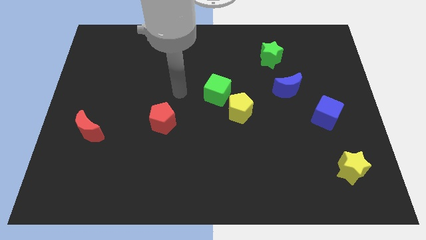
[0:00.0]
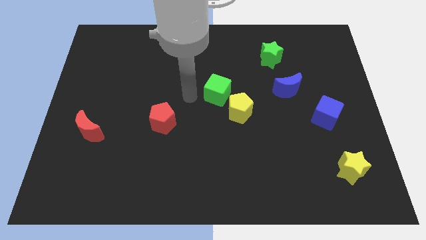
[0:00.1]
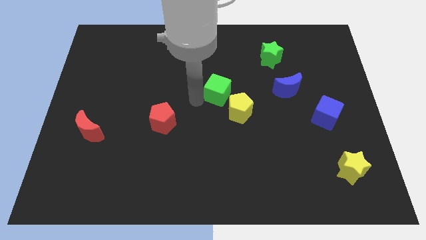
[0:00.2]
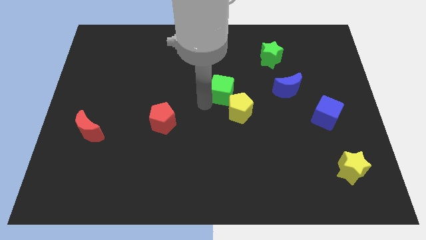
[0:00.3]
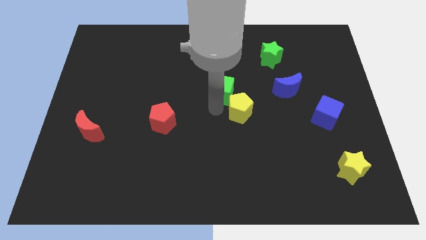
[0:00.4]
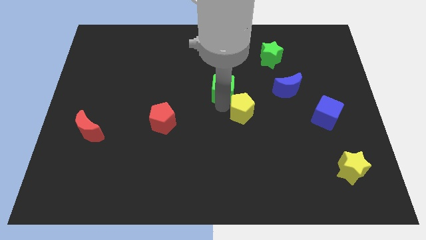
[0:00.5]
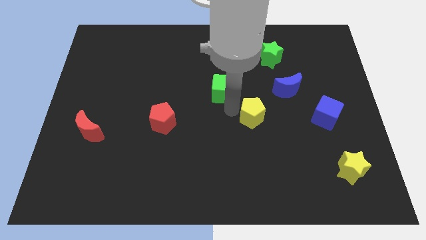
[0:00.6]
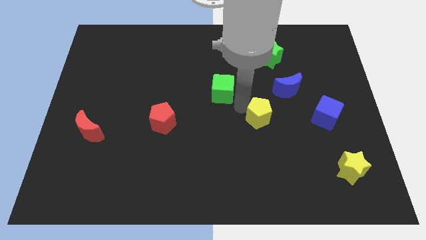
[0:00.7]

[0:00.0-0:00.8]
separate the green cube from the yellow pentagon

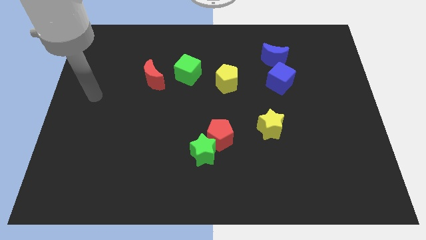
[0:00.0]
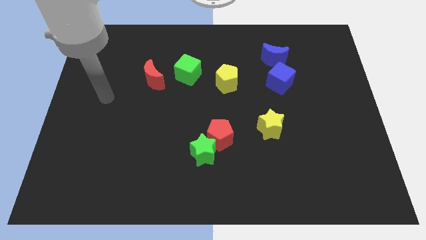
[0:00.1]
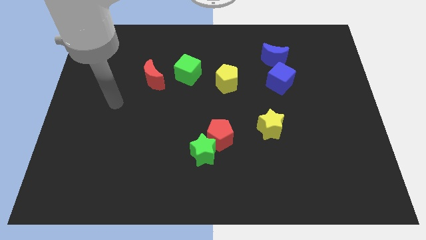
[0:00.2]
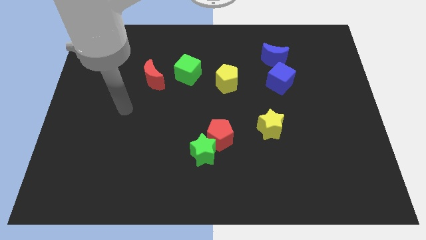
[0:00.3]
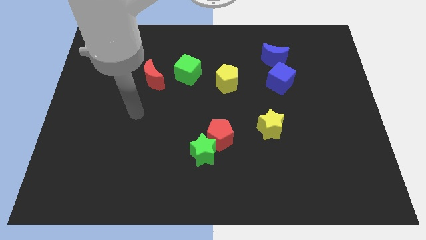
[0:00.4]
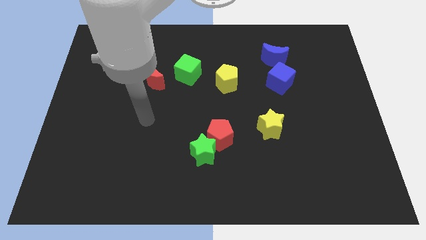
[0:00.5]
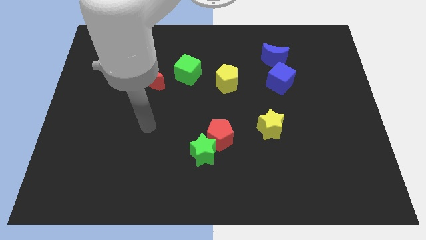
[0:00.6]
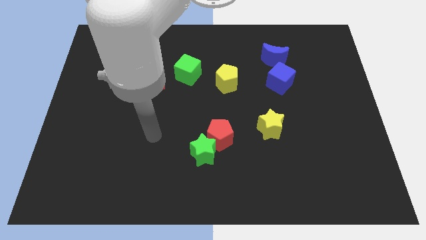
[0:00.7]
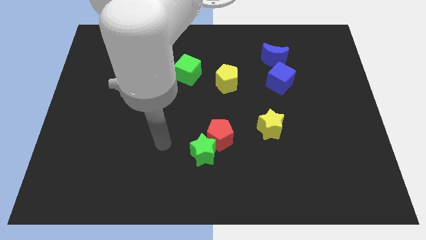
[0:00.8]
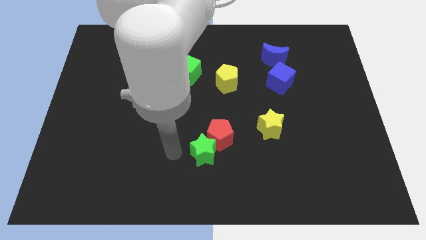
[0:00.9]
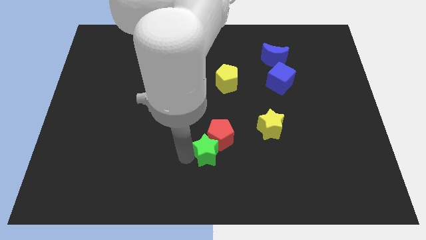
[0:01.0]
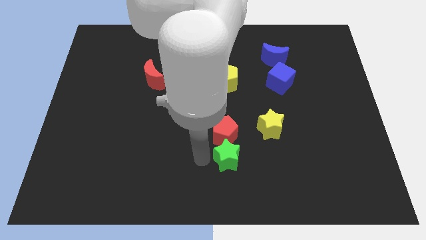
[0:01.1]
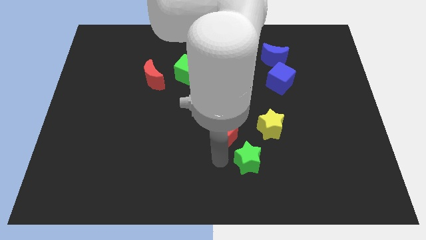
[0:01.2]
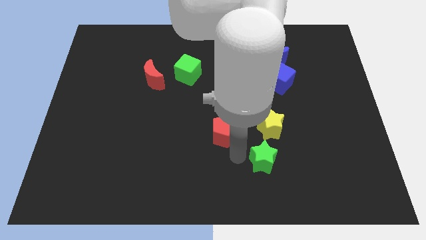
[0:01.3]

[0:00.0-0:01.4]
separate the red pentagon from the green star

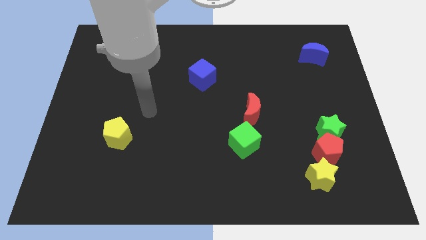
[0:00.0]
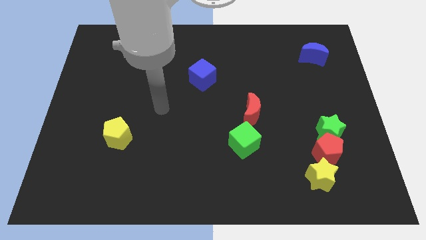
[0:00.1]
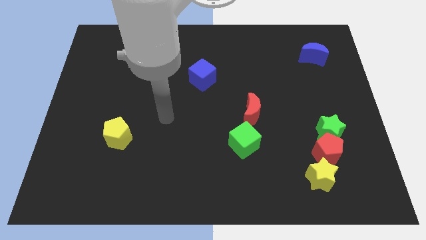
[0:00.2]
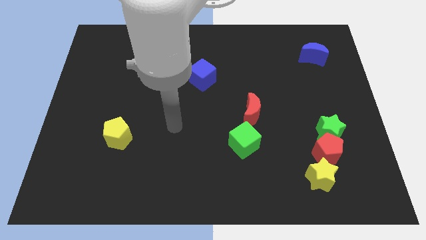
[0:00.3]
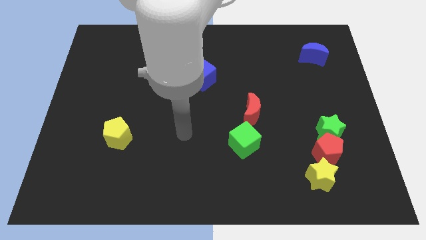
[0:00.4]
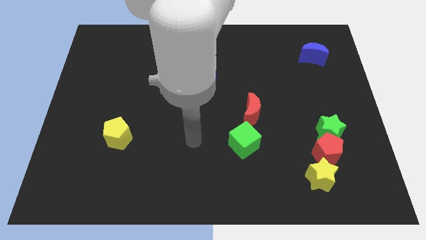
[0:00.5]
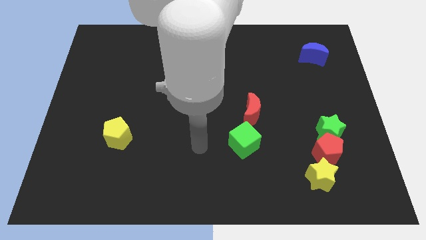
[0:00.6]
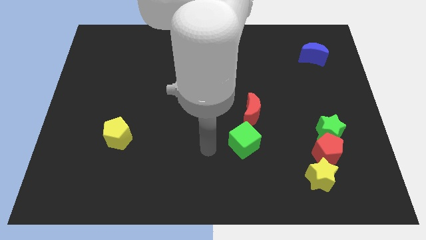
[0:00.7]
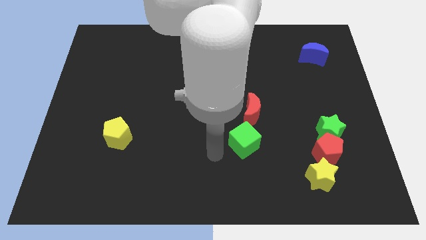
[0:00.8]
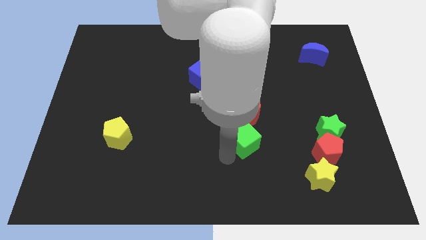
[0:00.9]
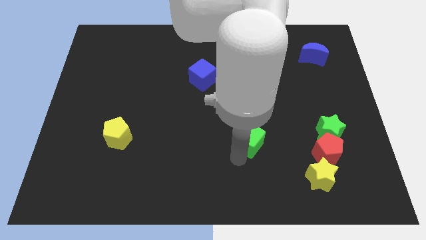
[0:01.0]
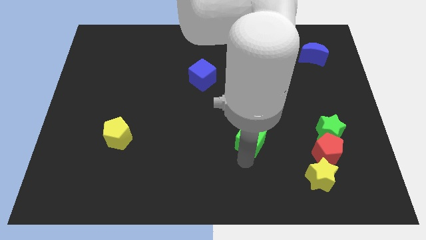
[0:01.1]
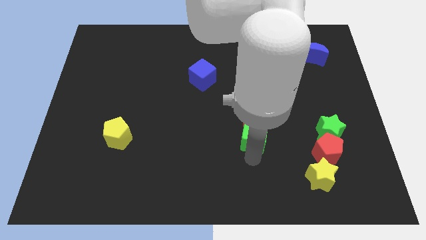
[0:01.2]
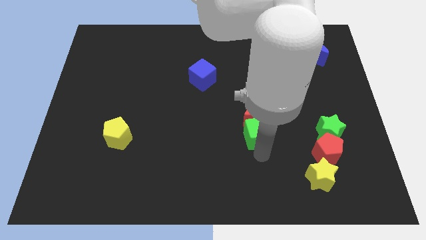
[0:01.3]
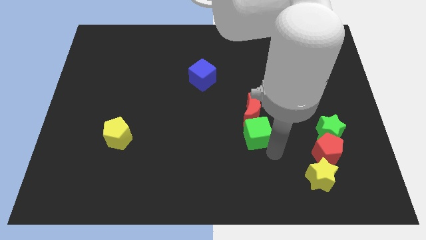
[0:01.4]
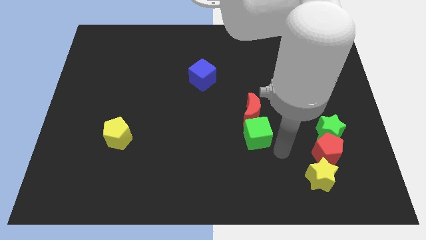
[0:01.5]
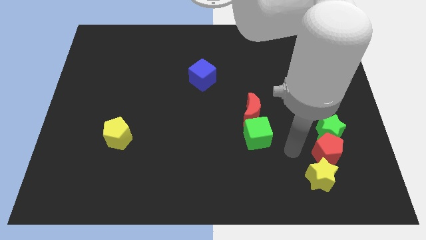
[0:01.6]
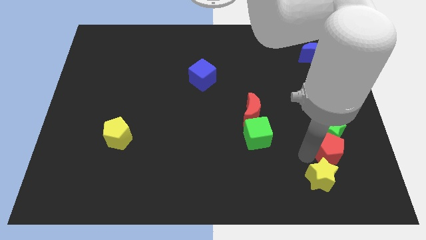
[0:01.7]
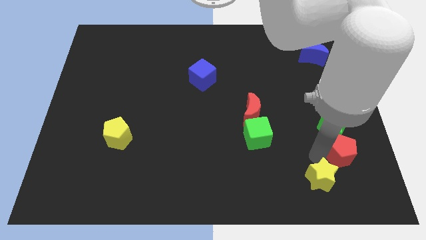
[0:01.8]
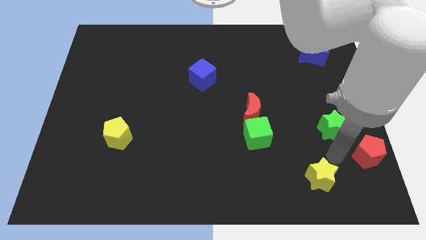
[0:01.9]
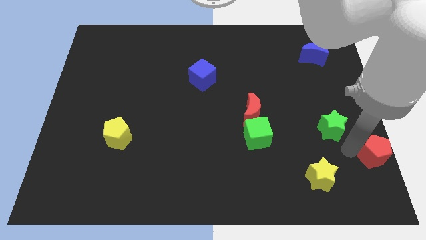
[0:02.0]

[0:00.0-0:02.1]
separate the green star from the red pentagon

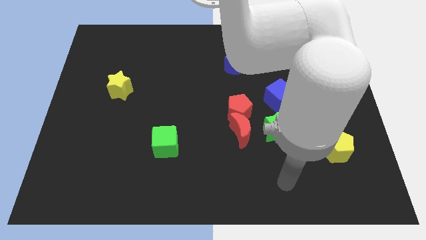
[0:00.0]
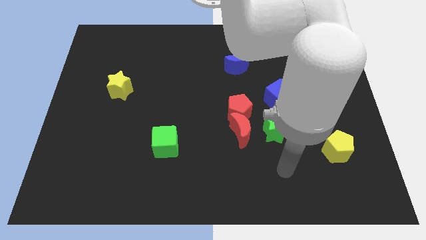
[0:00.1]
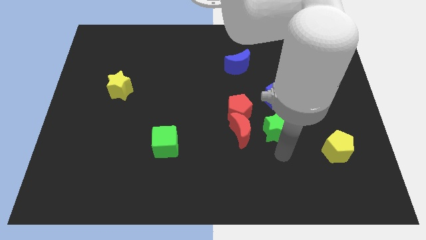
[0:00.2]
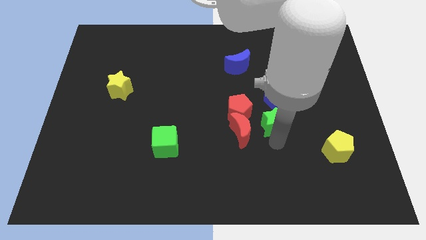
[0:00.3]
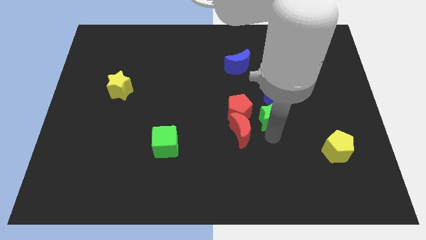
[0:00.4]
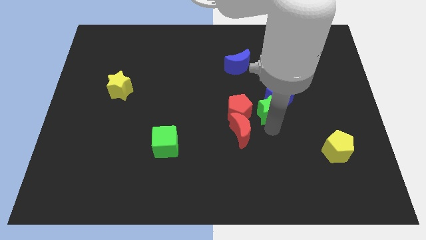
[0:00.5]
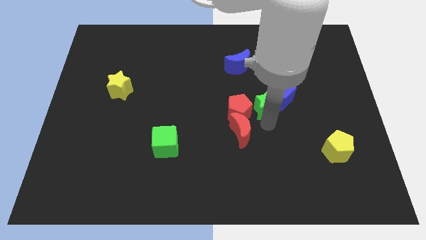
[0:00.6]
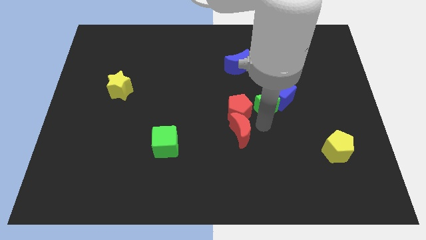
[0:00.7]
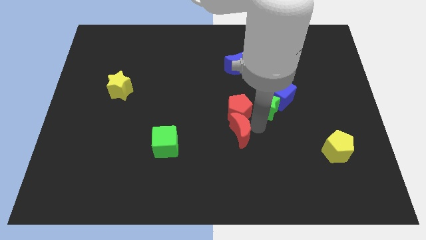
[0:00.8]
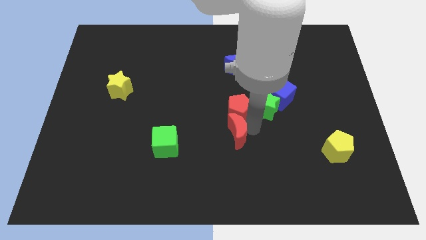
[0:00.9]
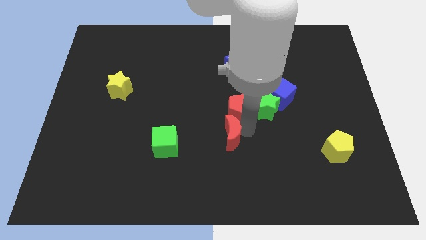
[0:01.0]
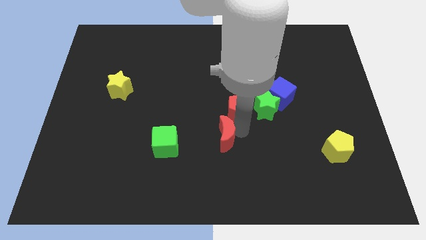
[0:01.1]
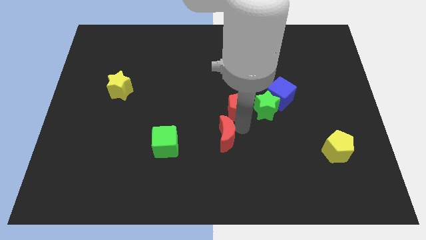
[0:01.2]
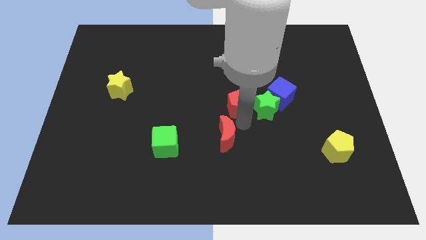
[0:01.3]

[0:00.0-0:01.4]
separate the red moon from the red pentagon and green star

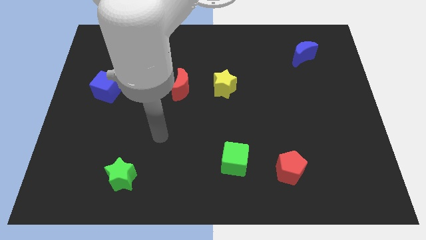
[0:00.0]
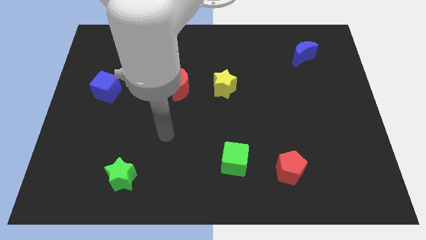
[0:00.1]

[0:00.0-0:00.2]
move the red moon away from the yellow star

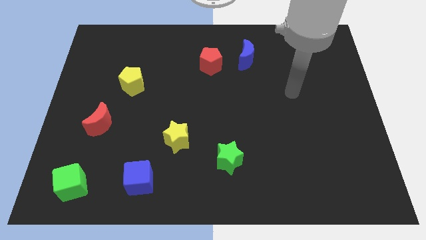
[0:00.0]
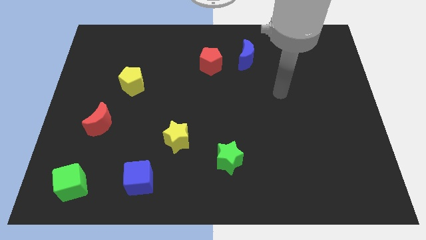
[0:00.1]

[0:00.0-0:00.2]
separate the red pentagon from the blue moon

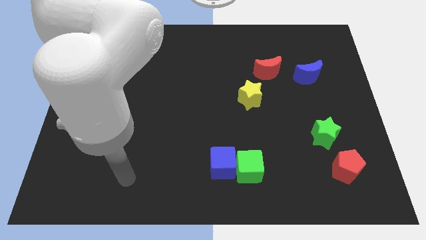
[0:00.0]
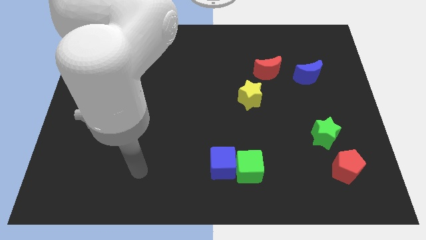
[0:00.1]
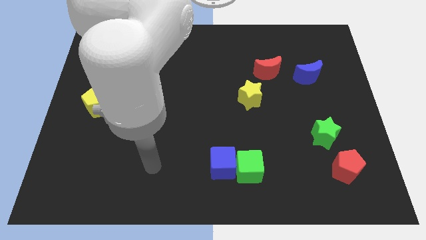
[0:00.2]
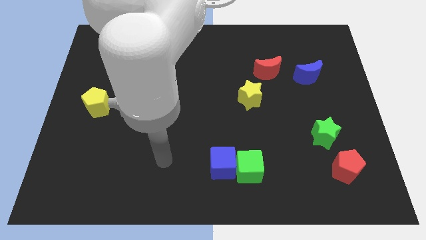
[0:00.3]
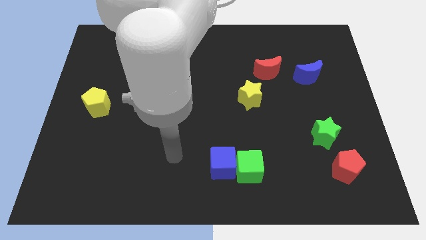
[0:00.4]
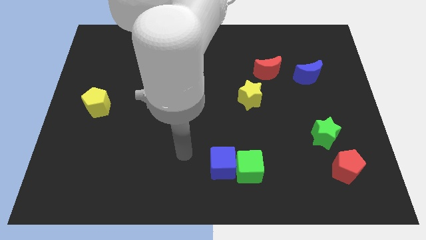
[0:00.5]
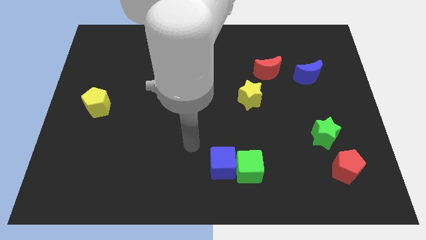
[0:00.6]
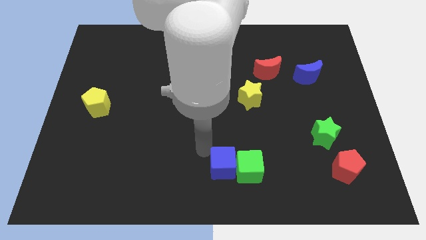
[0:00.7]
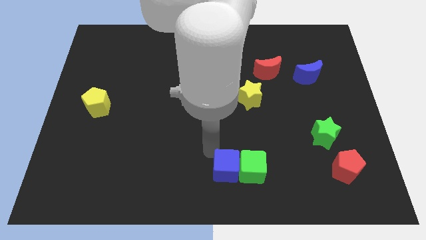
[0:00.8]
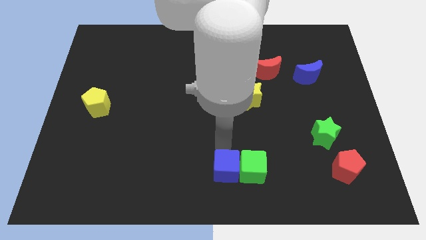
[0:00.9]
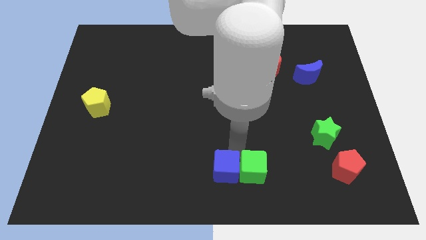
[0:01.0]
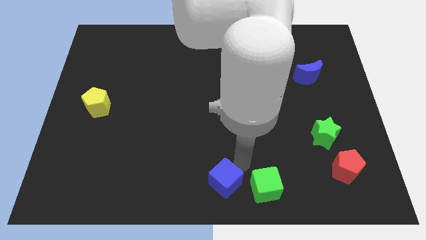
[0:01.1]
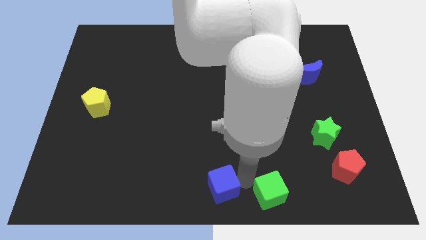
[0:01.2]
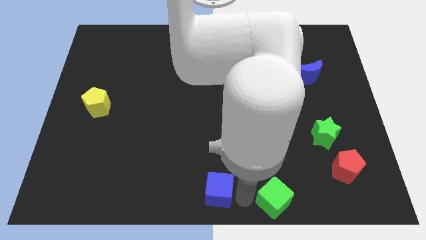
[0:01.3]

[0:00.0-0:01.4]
separate the blue cube from the green cube

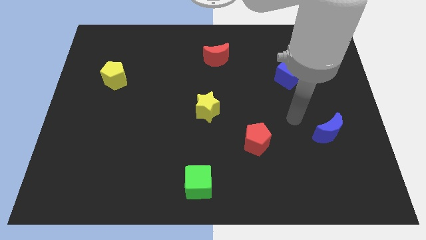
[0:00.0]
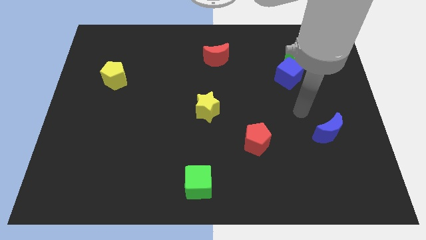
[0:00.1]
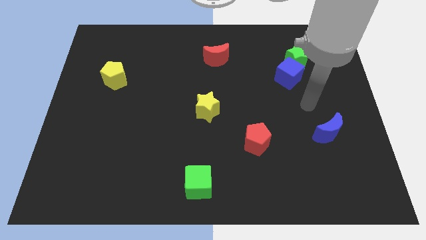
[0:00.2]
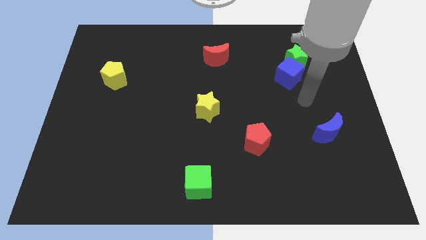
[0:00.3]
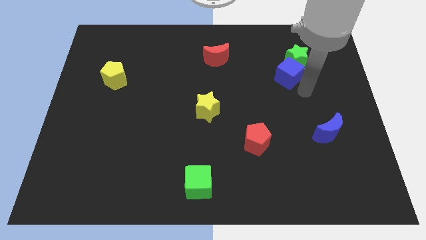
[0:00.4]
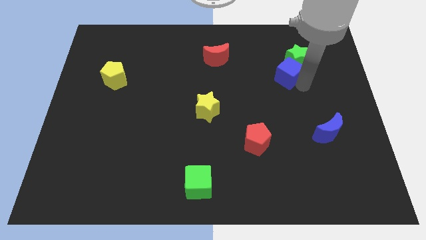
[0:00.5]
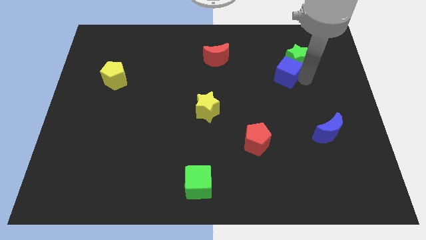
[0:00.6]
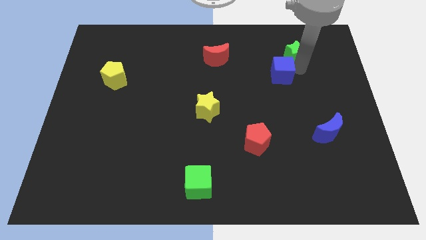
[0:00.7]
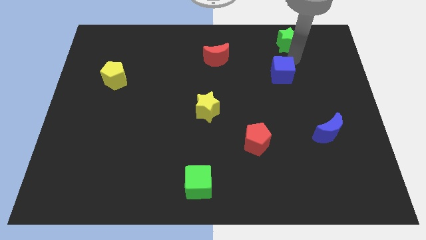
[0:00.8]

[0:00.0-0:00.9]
move the blue cube away from the green star

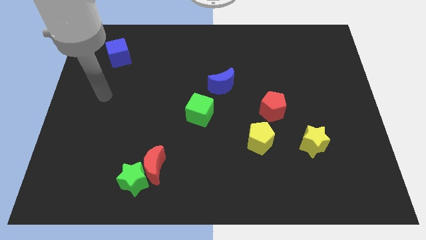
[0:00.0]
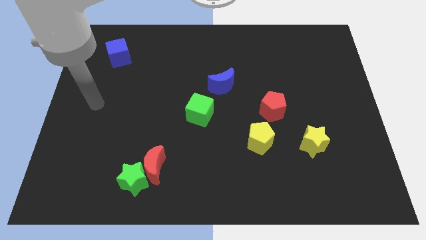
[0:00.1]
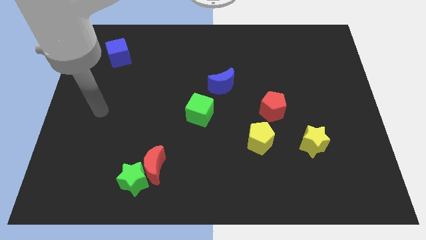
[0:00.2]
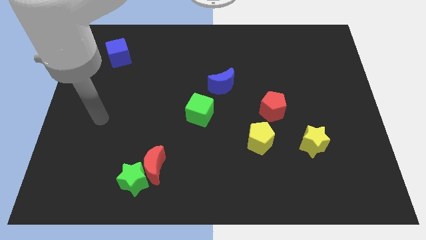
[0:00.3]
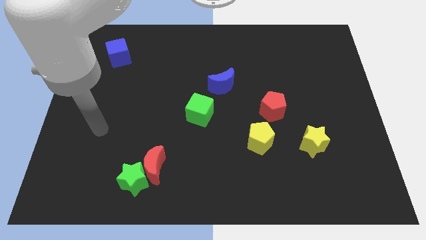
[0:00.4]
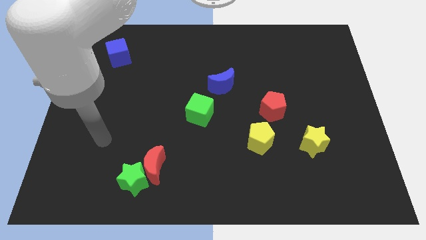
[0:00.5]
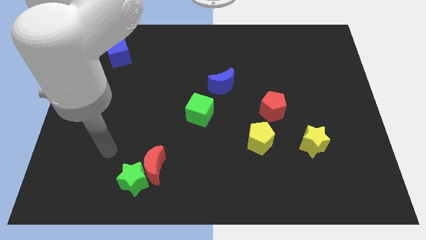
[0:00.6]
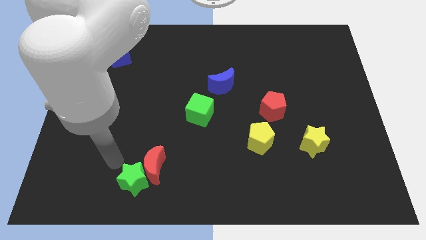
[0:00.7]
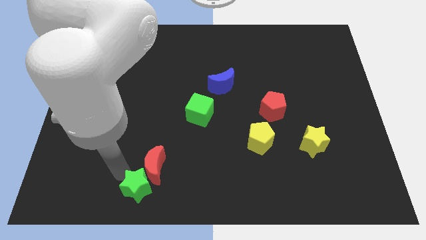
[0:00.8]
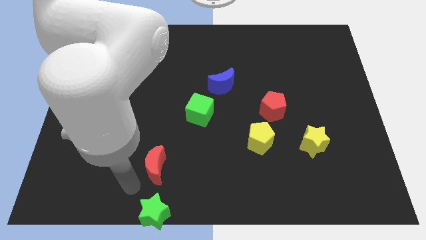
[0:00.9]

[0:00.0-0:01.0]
pull the red moon apart from the green star

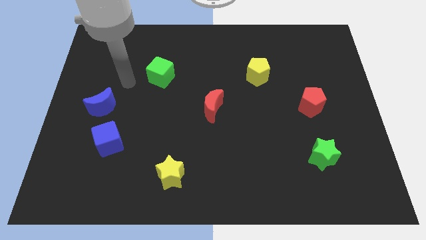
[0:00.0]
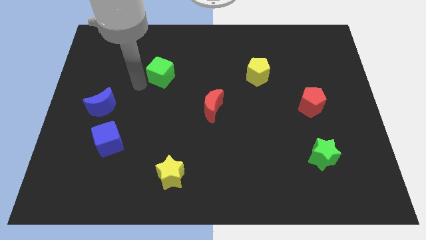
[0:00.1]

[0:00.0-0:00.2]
move the blue moon away from the blue cube
